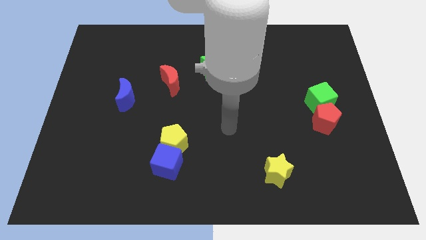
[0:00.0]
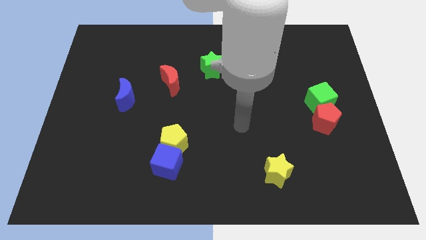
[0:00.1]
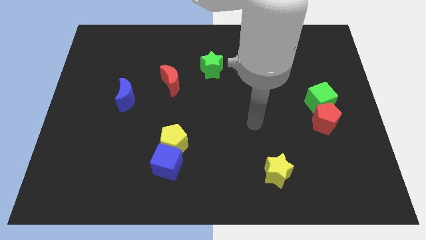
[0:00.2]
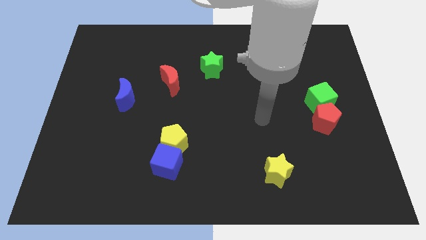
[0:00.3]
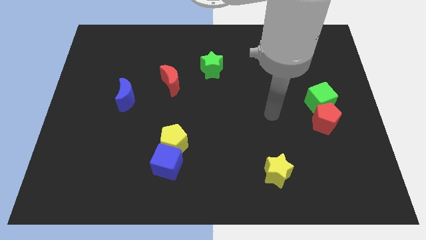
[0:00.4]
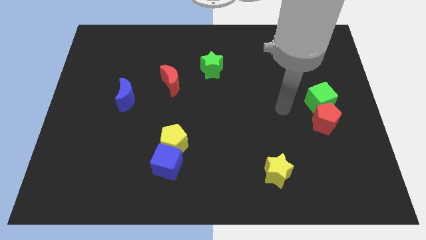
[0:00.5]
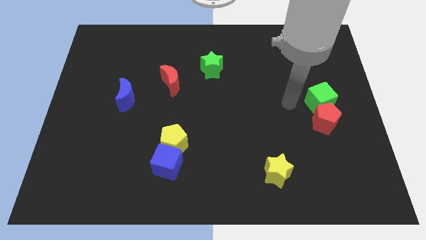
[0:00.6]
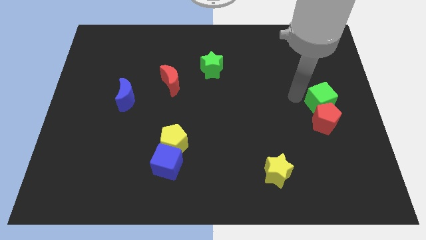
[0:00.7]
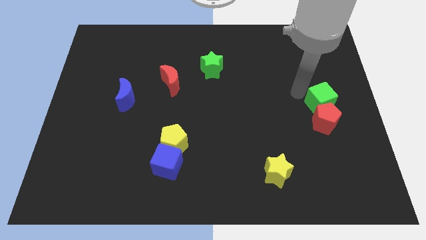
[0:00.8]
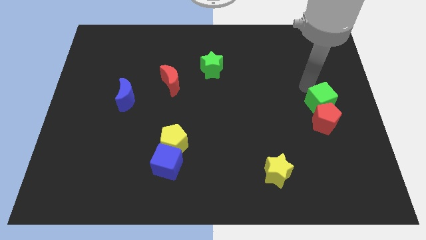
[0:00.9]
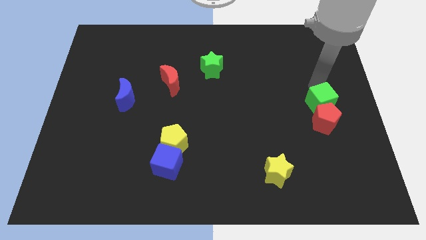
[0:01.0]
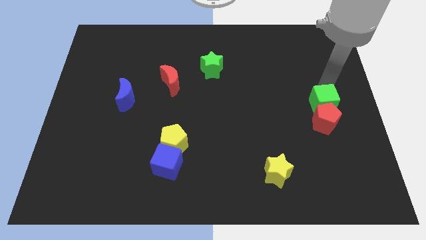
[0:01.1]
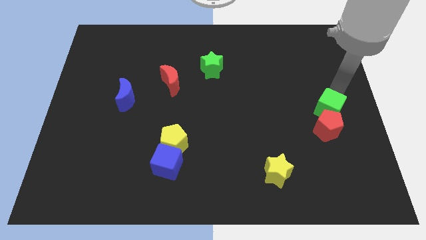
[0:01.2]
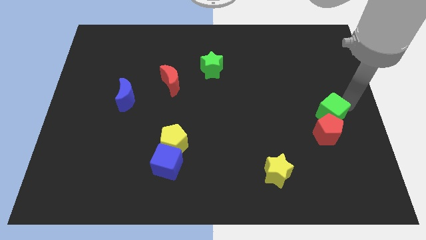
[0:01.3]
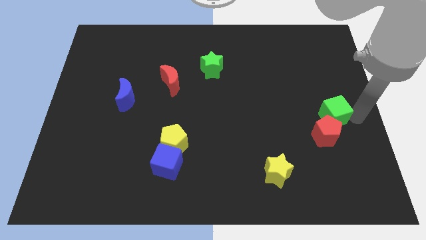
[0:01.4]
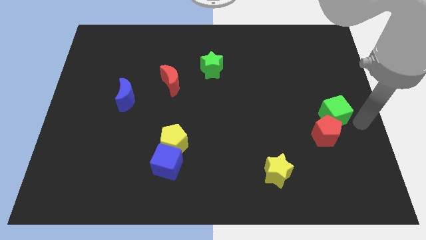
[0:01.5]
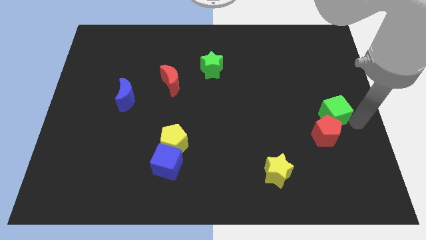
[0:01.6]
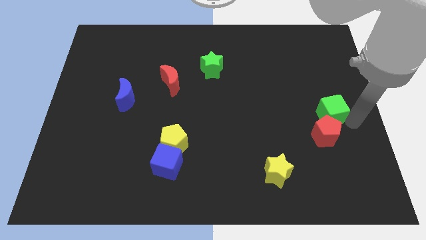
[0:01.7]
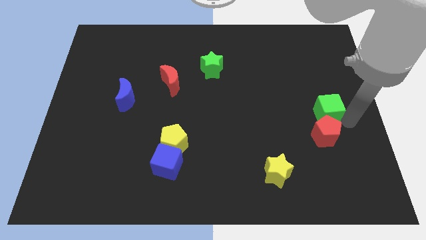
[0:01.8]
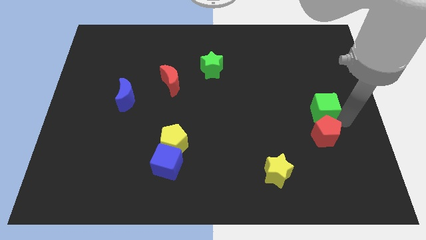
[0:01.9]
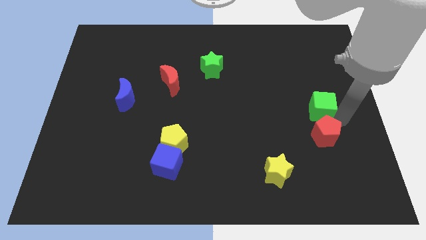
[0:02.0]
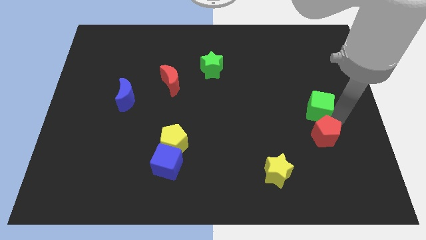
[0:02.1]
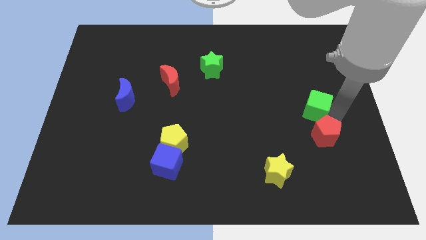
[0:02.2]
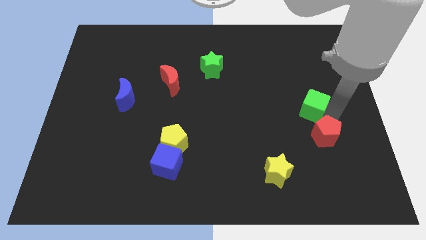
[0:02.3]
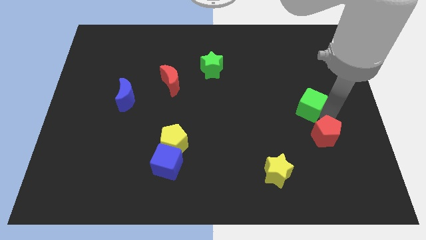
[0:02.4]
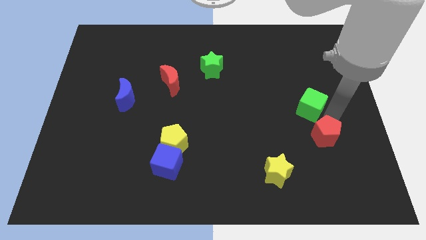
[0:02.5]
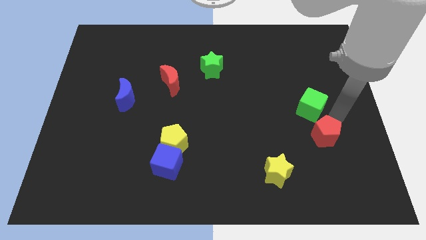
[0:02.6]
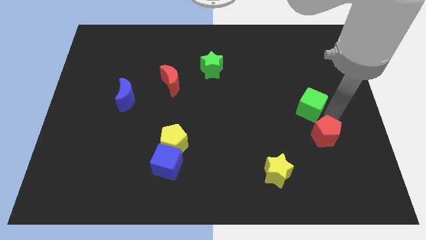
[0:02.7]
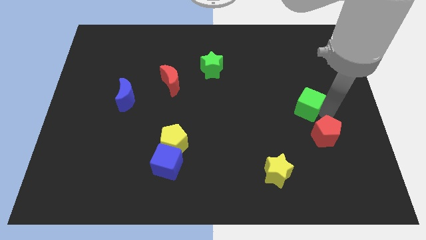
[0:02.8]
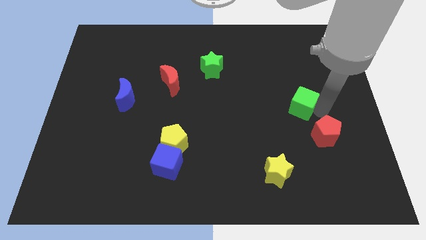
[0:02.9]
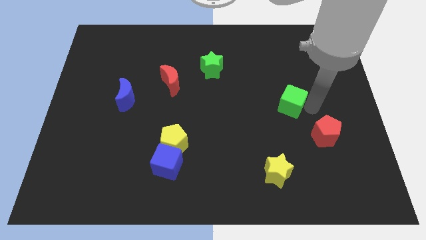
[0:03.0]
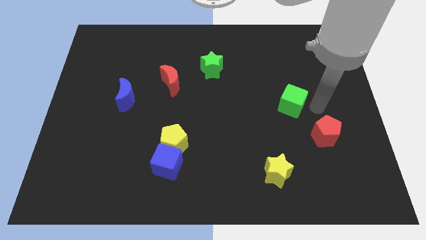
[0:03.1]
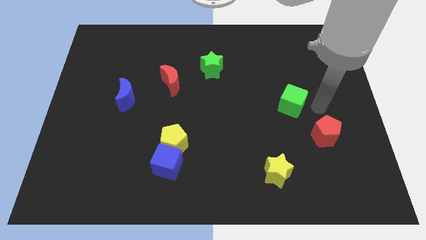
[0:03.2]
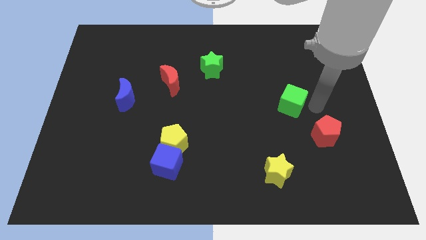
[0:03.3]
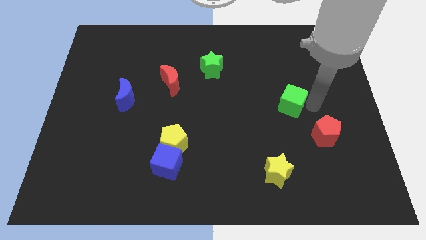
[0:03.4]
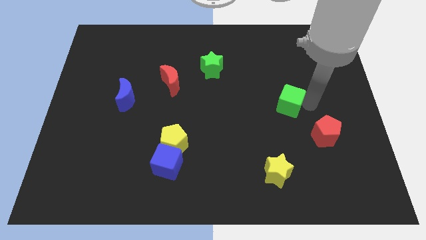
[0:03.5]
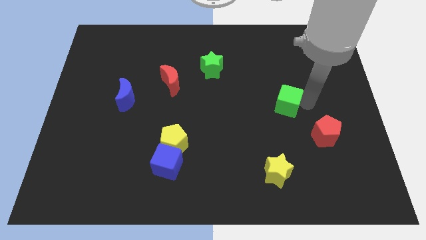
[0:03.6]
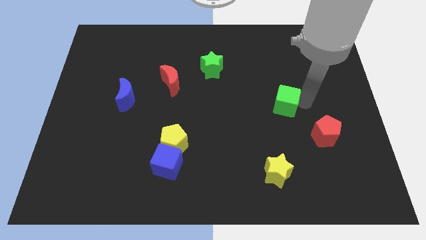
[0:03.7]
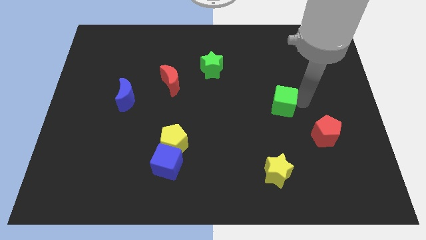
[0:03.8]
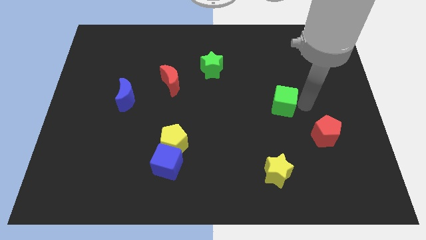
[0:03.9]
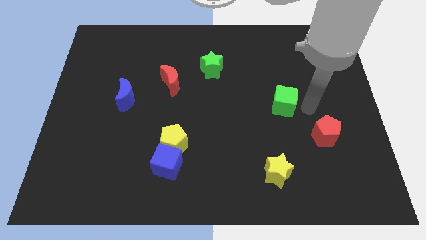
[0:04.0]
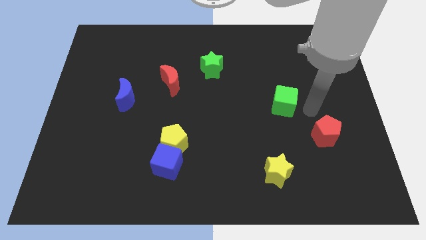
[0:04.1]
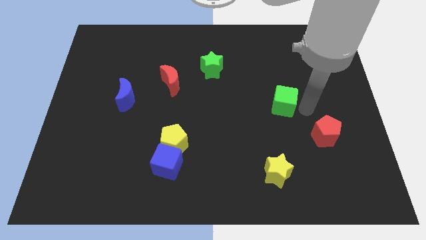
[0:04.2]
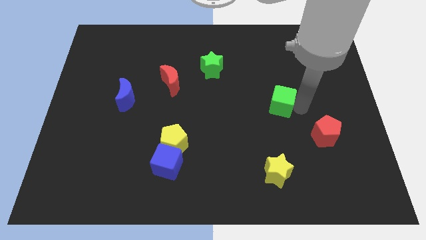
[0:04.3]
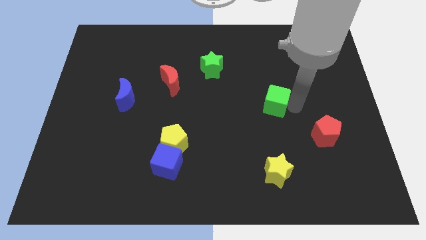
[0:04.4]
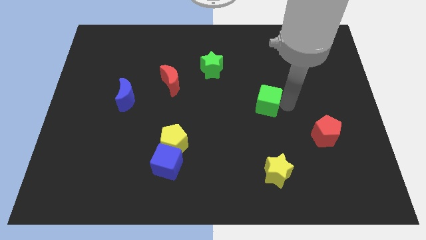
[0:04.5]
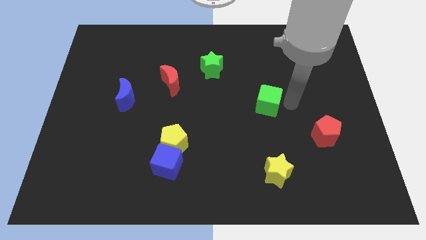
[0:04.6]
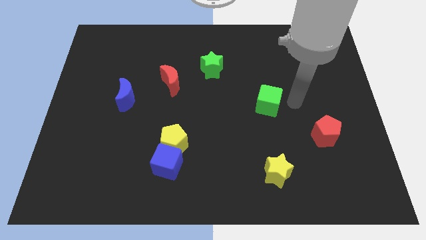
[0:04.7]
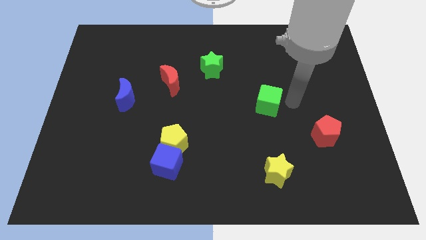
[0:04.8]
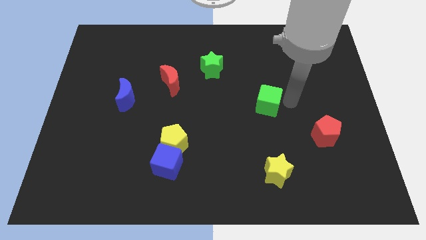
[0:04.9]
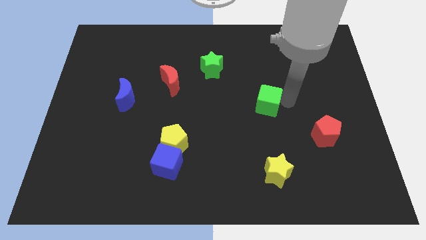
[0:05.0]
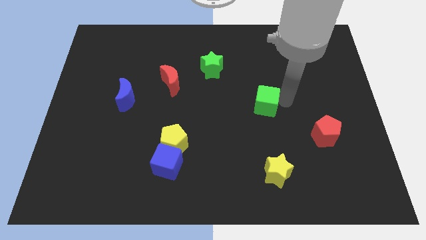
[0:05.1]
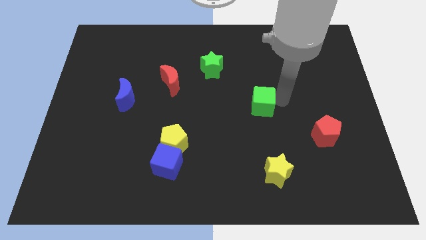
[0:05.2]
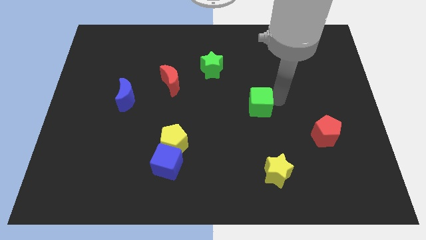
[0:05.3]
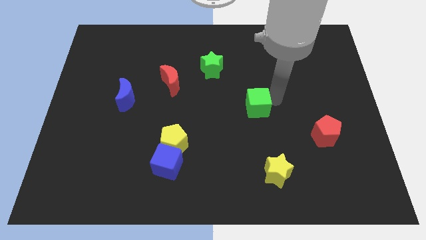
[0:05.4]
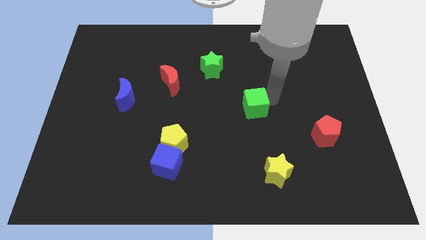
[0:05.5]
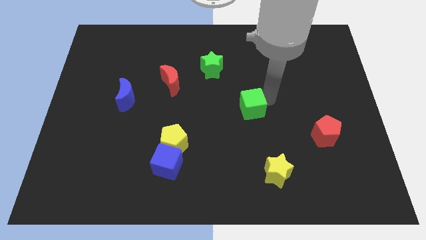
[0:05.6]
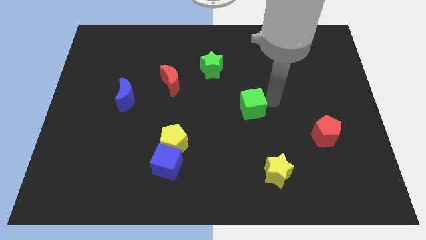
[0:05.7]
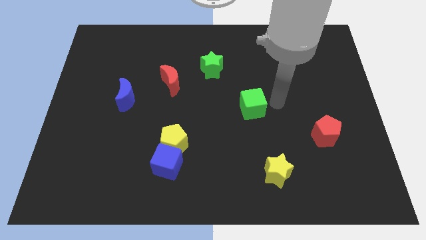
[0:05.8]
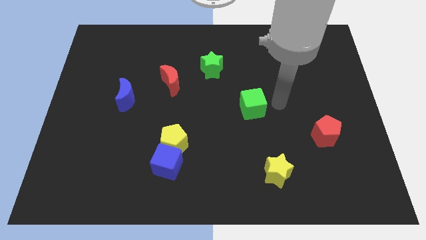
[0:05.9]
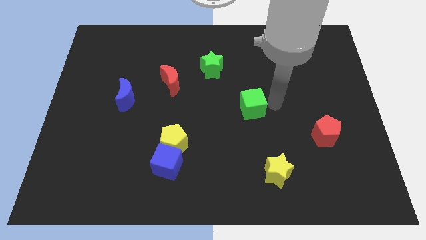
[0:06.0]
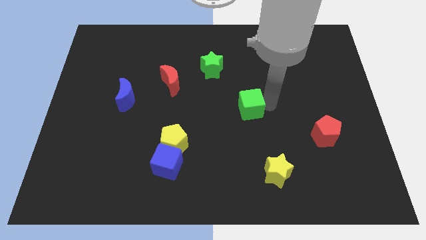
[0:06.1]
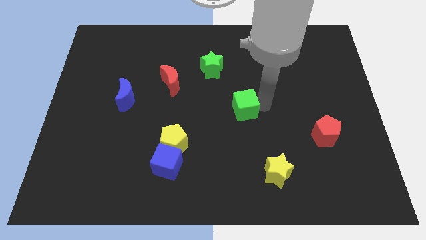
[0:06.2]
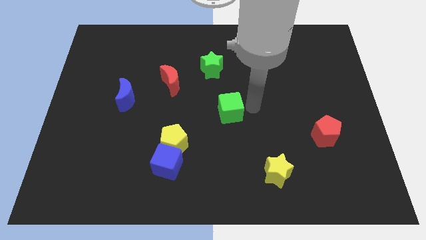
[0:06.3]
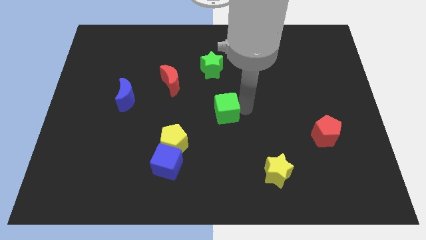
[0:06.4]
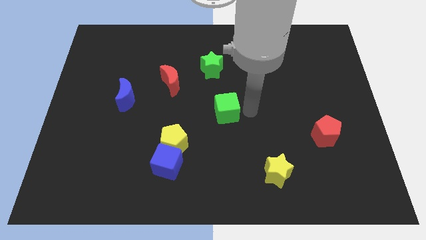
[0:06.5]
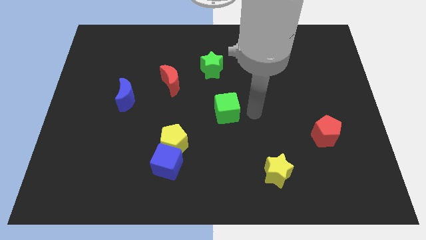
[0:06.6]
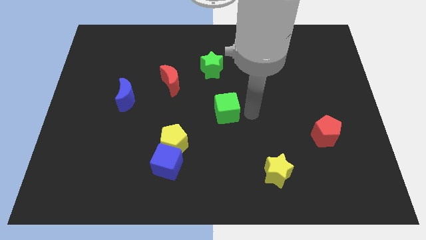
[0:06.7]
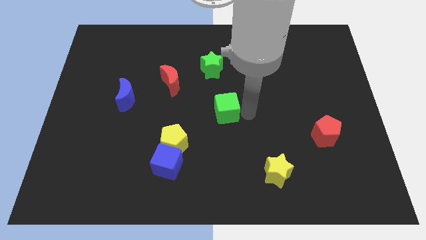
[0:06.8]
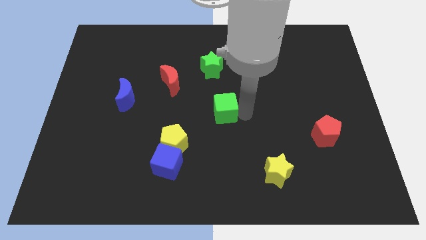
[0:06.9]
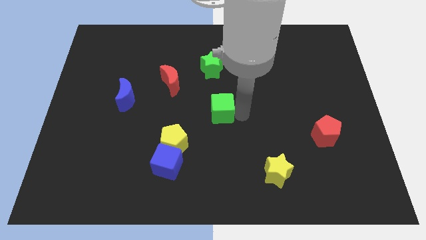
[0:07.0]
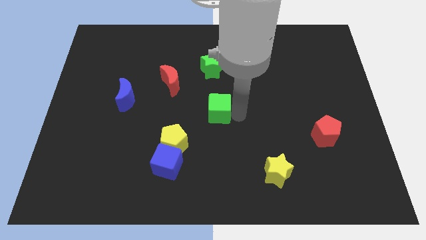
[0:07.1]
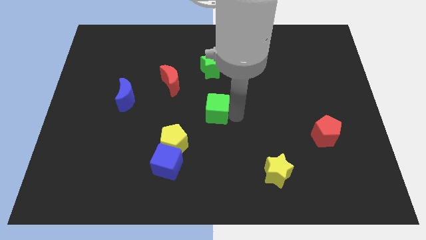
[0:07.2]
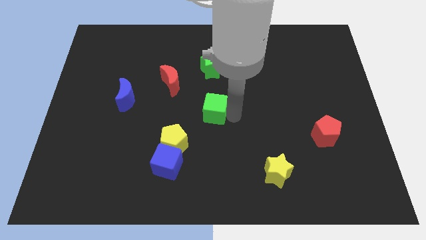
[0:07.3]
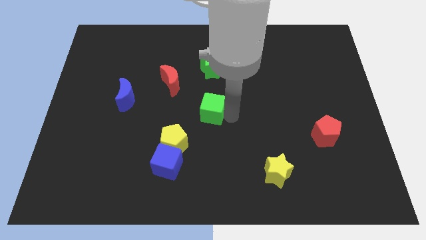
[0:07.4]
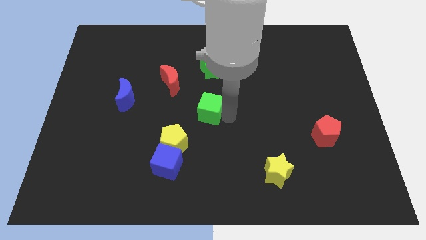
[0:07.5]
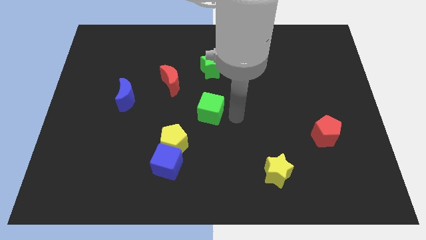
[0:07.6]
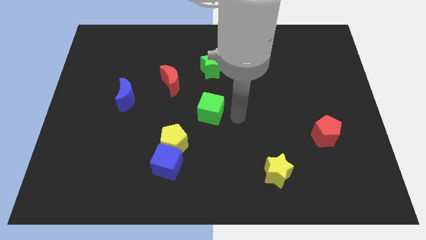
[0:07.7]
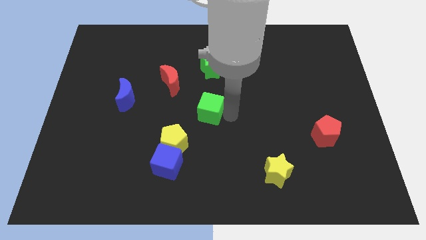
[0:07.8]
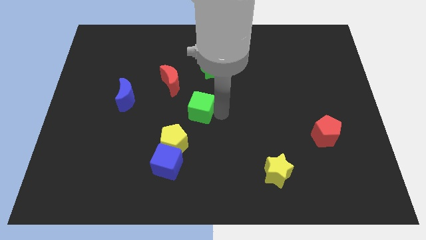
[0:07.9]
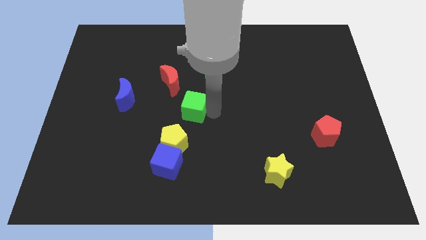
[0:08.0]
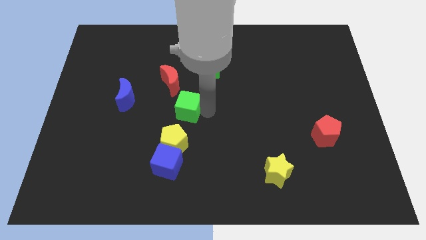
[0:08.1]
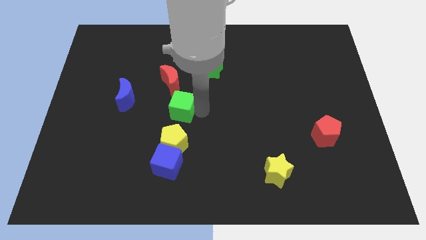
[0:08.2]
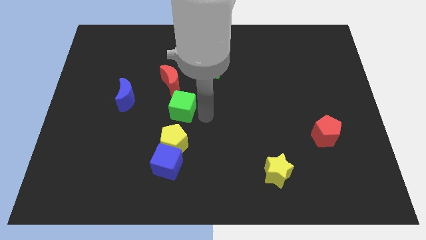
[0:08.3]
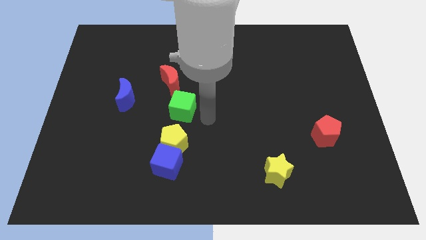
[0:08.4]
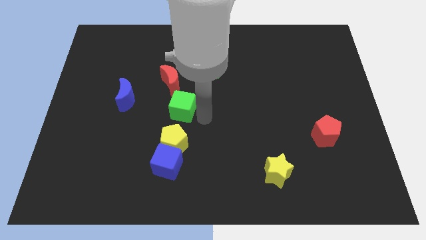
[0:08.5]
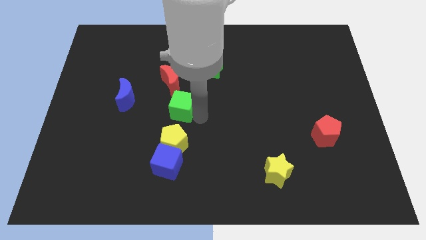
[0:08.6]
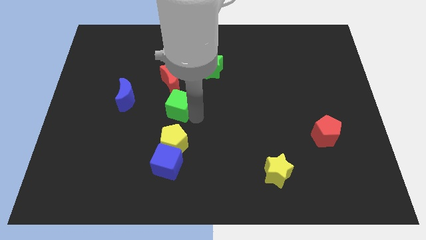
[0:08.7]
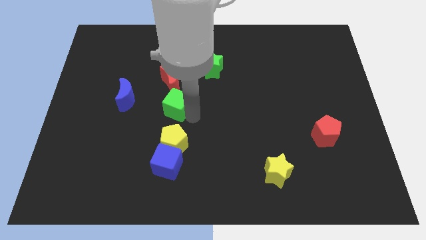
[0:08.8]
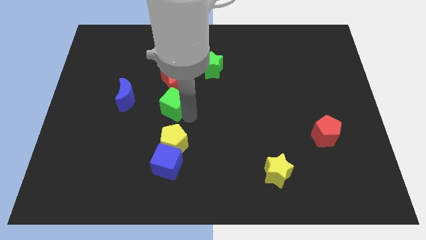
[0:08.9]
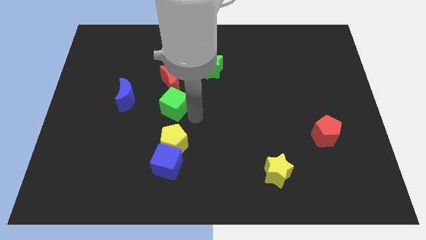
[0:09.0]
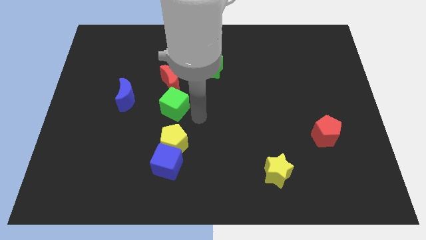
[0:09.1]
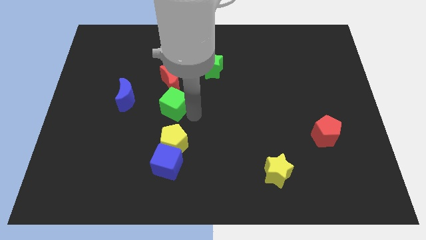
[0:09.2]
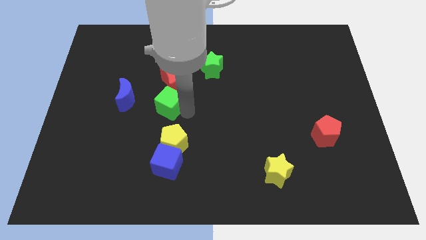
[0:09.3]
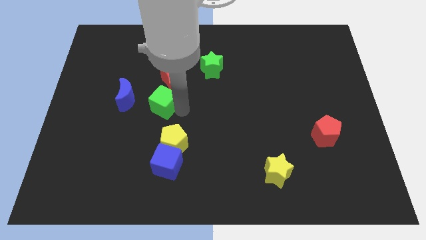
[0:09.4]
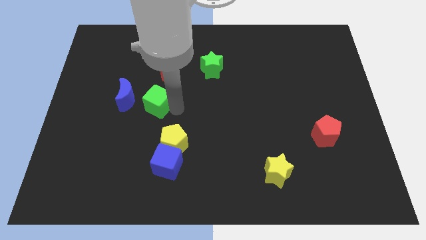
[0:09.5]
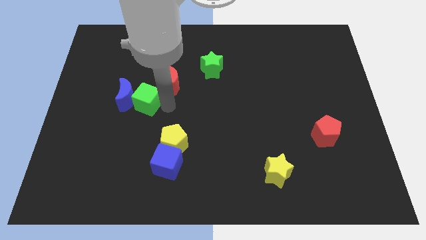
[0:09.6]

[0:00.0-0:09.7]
put the green cube next to the blue moon
